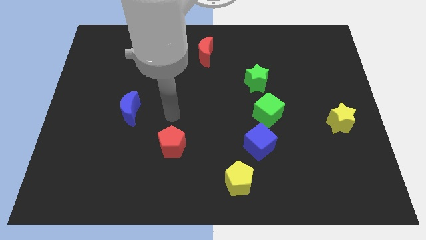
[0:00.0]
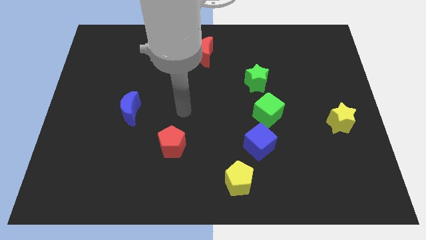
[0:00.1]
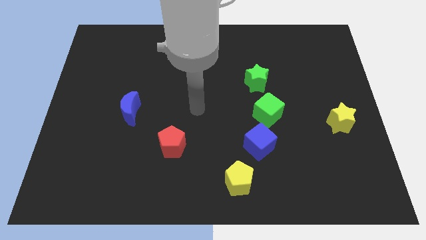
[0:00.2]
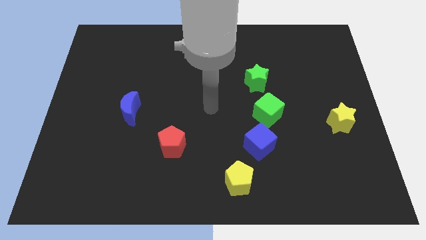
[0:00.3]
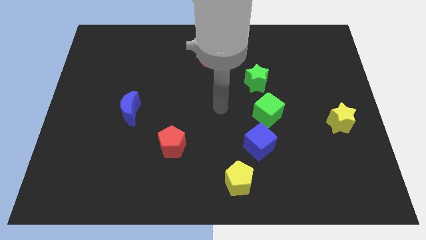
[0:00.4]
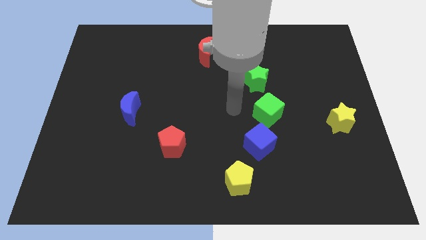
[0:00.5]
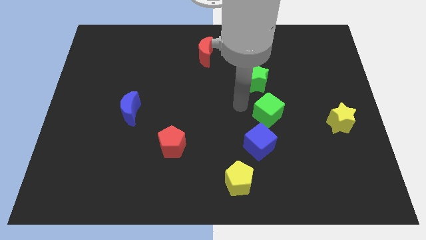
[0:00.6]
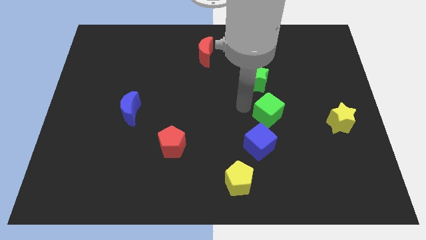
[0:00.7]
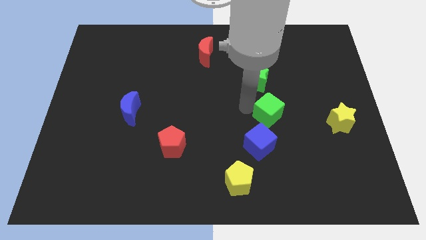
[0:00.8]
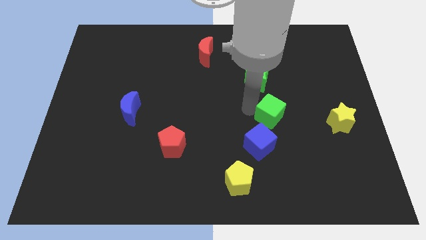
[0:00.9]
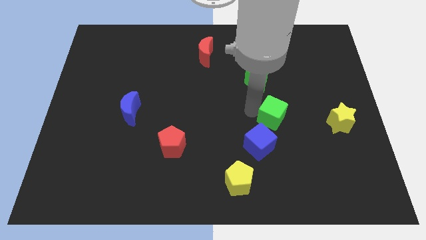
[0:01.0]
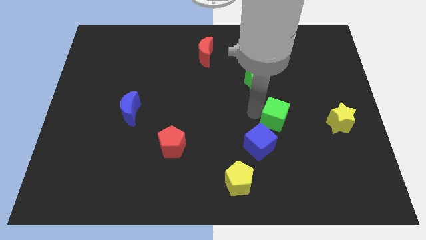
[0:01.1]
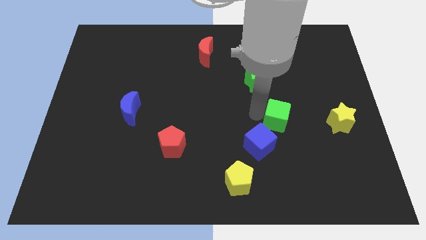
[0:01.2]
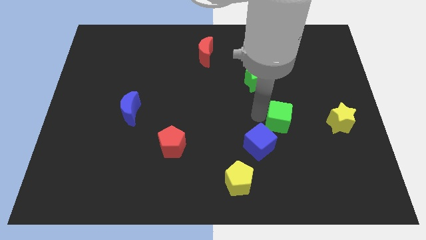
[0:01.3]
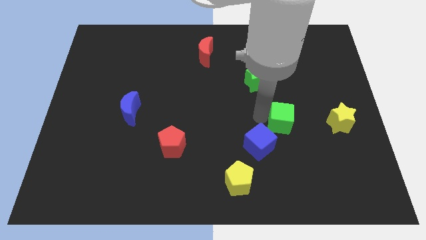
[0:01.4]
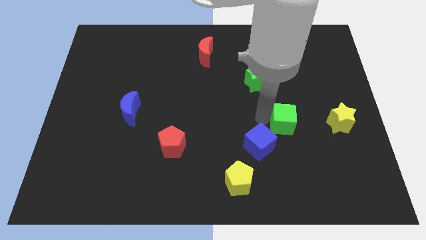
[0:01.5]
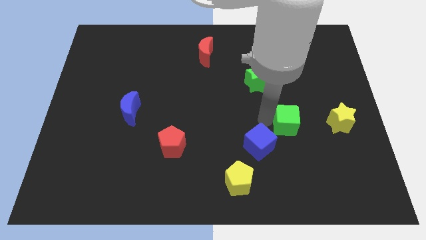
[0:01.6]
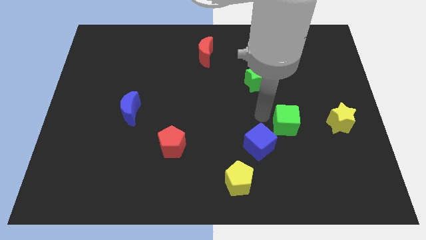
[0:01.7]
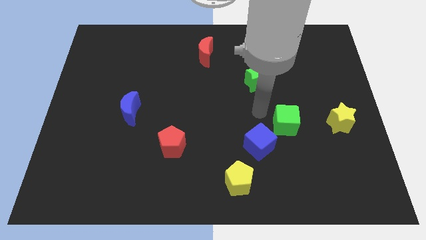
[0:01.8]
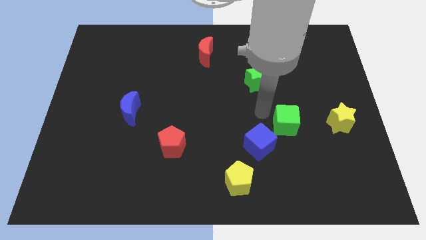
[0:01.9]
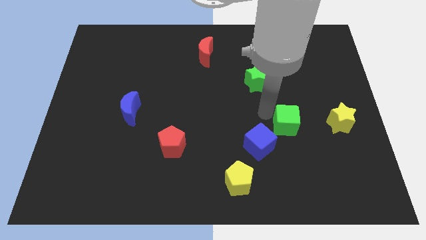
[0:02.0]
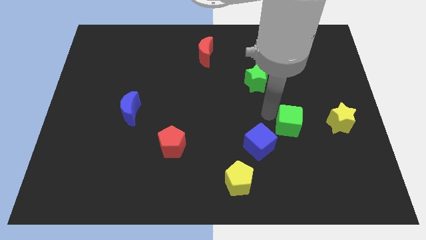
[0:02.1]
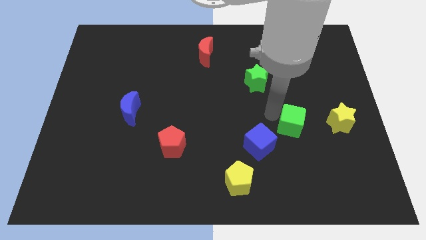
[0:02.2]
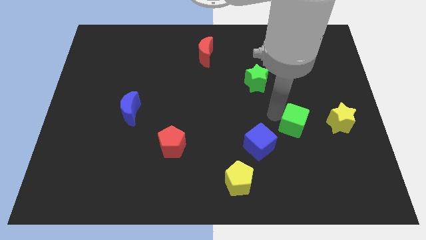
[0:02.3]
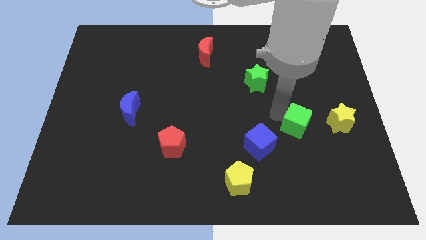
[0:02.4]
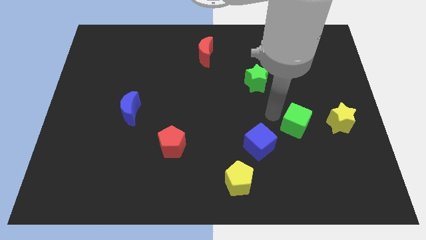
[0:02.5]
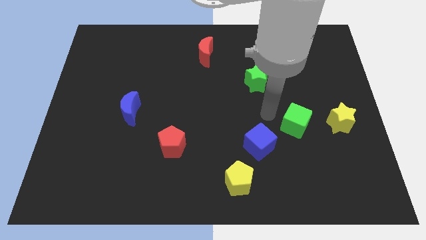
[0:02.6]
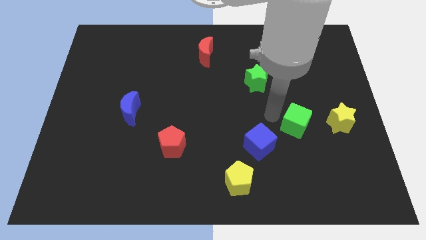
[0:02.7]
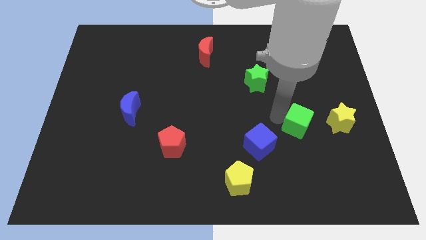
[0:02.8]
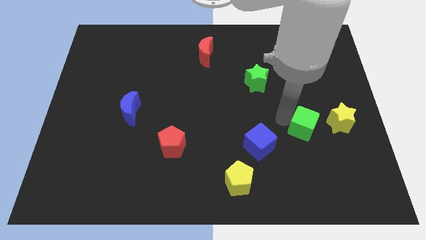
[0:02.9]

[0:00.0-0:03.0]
pull the green cube apart from the blue cube and green star

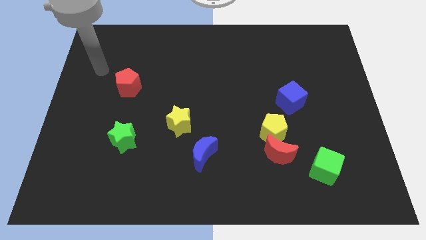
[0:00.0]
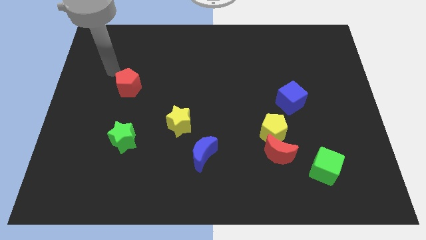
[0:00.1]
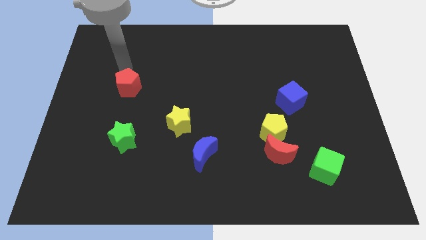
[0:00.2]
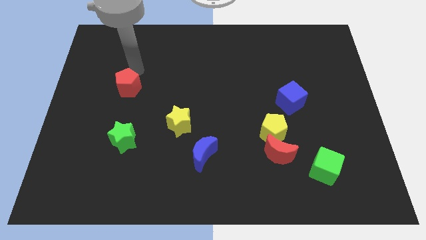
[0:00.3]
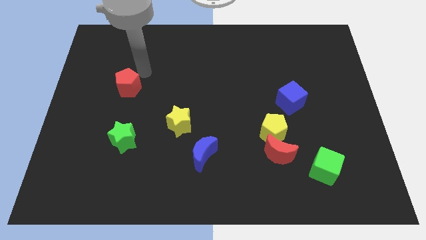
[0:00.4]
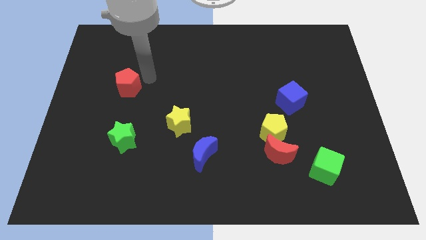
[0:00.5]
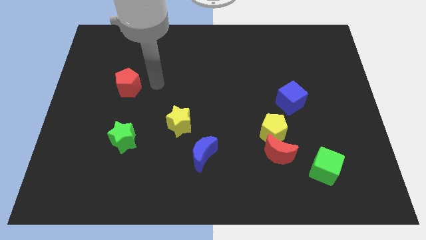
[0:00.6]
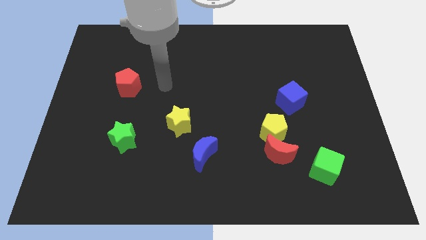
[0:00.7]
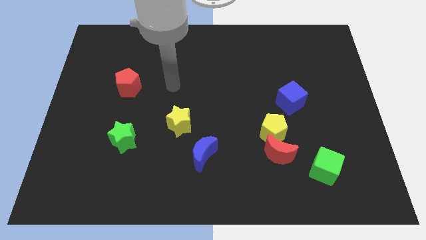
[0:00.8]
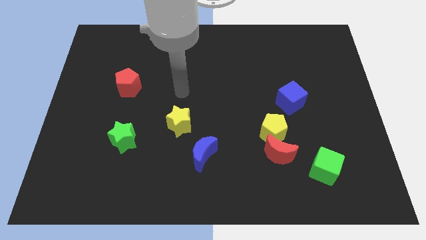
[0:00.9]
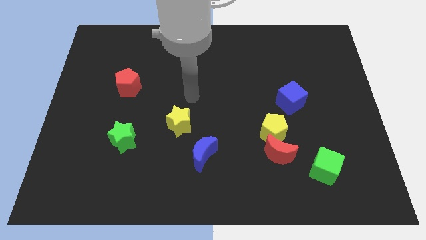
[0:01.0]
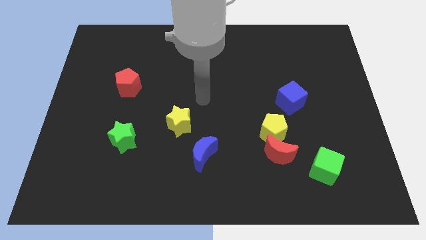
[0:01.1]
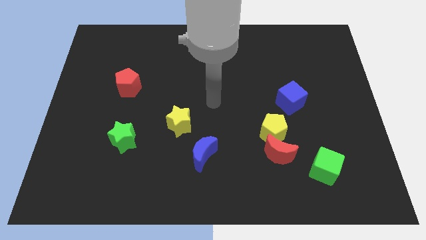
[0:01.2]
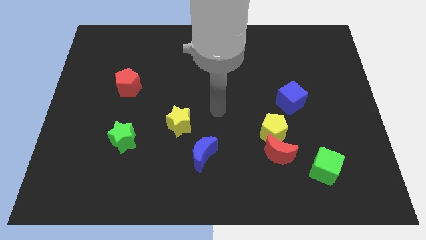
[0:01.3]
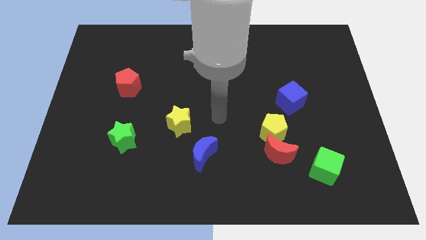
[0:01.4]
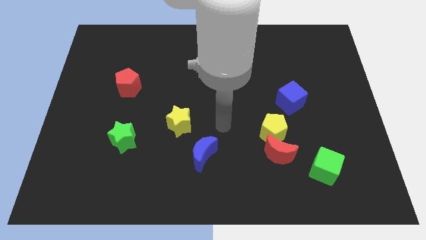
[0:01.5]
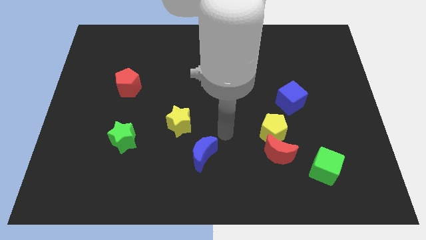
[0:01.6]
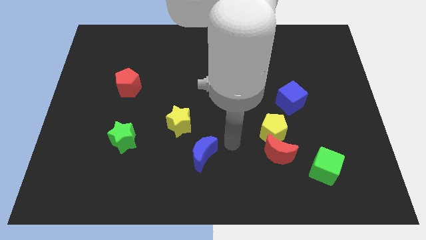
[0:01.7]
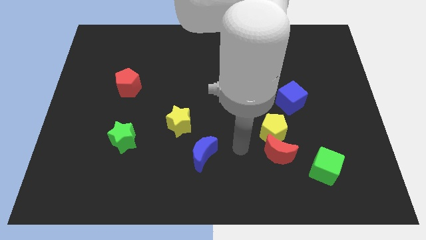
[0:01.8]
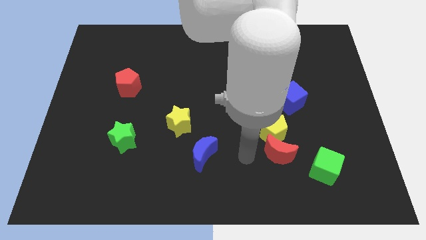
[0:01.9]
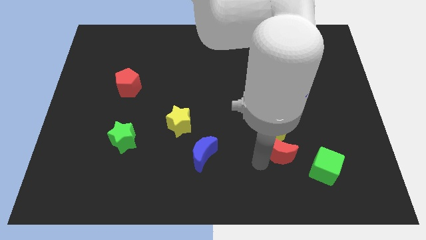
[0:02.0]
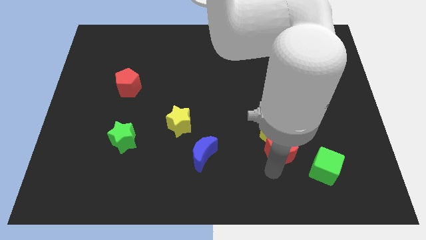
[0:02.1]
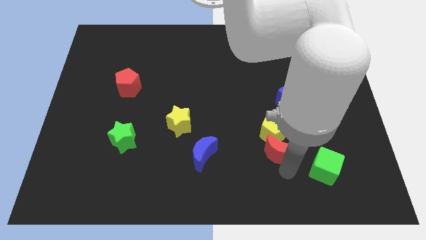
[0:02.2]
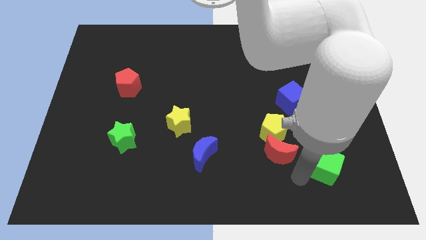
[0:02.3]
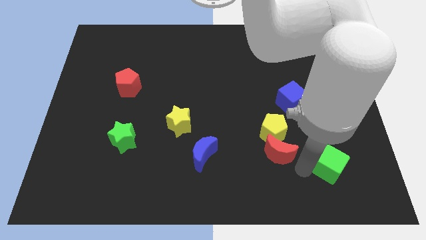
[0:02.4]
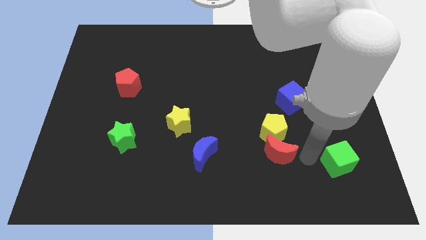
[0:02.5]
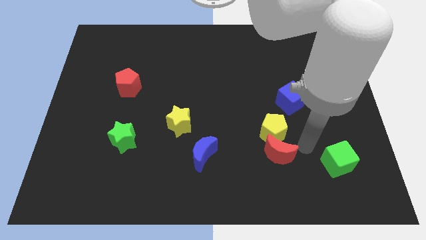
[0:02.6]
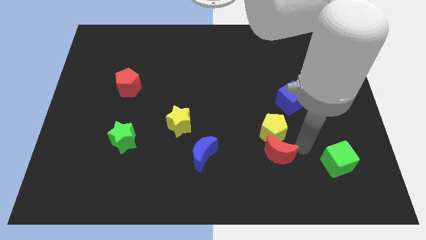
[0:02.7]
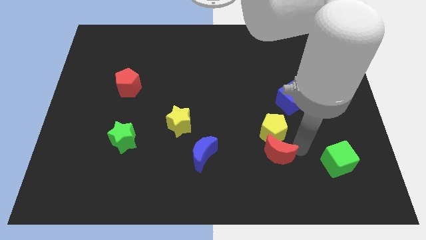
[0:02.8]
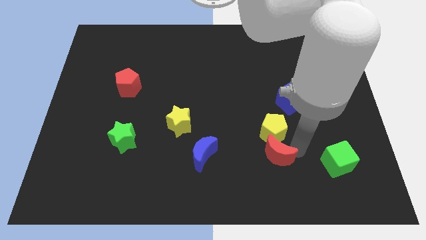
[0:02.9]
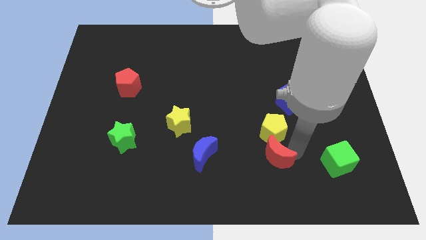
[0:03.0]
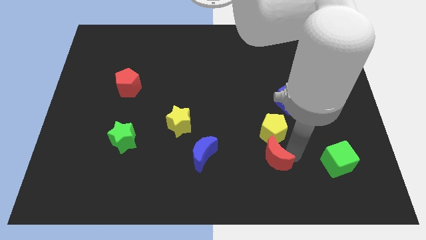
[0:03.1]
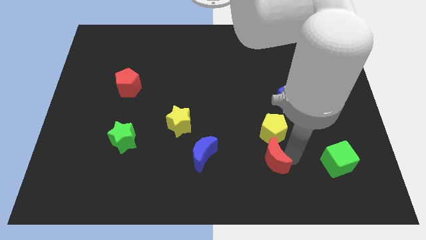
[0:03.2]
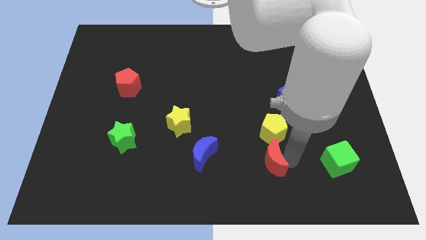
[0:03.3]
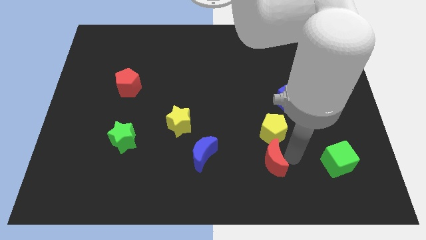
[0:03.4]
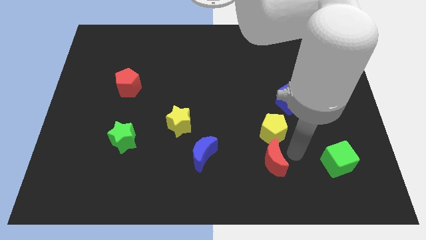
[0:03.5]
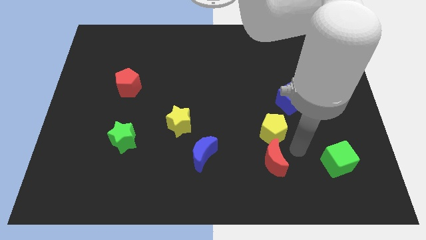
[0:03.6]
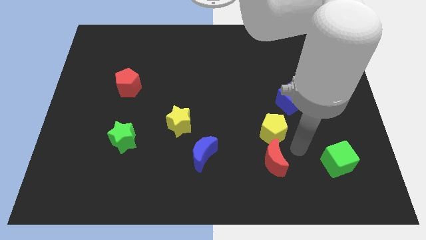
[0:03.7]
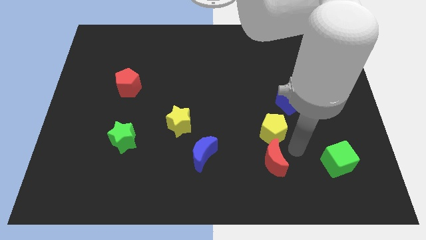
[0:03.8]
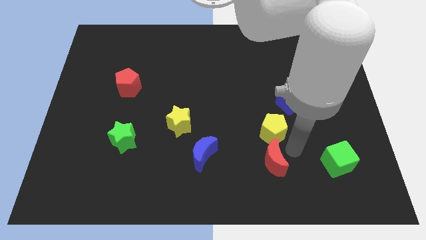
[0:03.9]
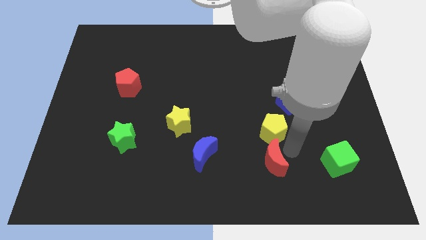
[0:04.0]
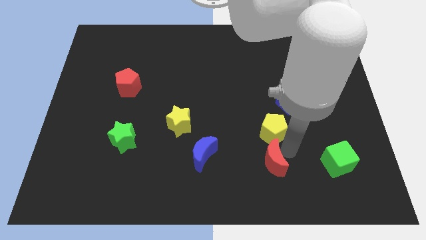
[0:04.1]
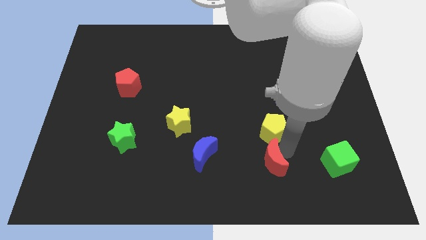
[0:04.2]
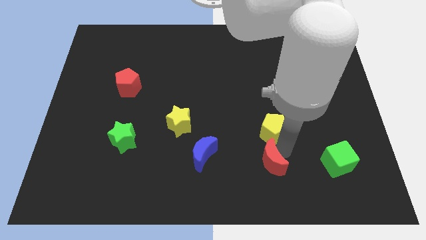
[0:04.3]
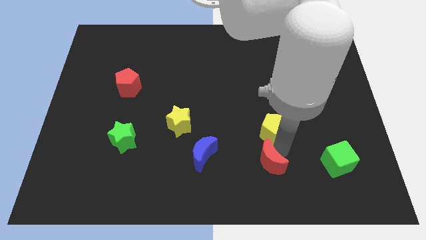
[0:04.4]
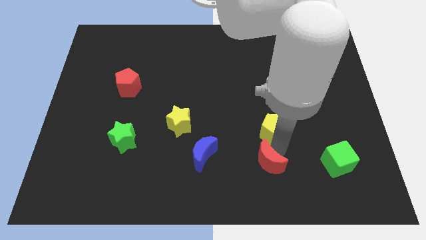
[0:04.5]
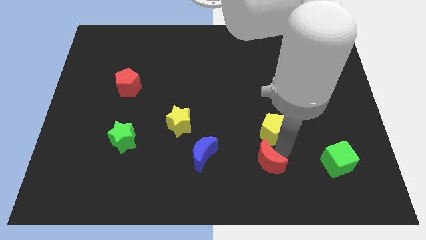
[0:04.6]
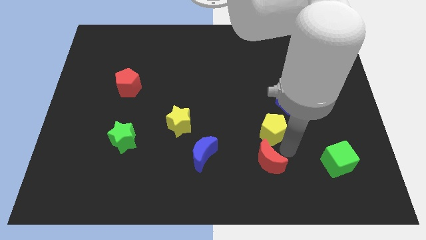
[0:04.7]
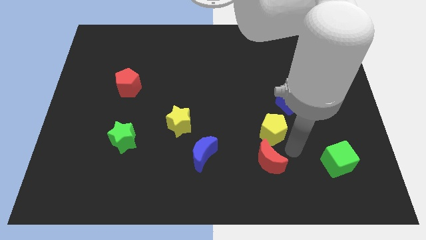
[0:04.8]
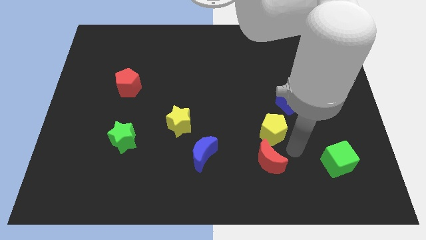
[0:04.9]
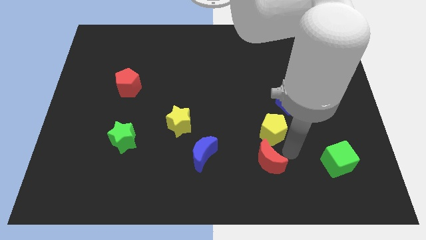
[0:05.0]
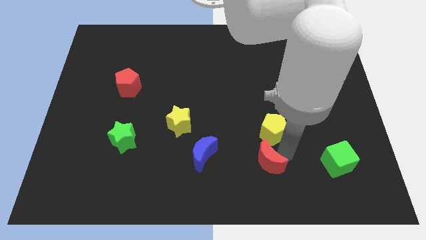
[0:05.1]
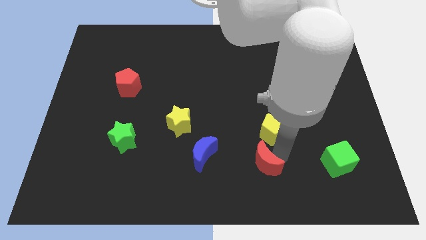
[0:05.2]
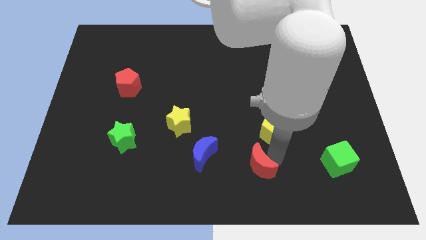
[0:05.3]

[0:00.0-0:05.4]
move the red moon away from the yellow pentagon and green cube

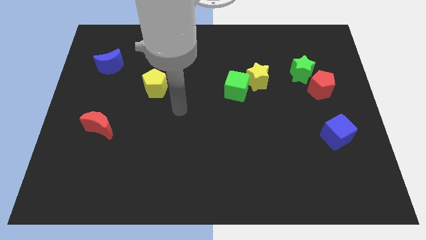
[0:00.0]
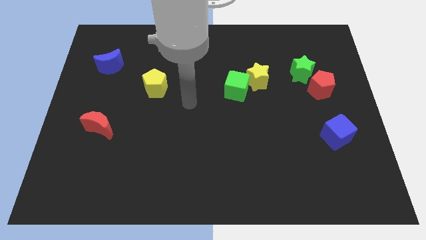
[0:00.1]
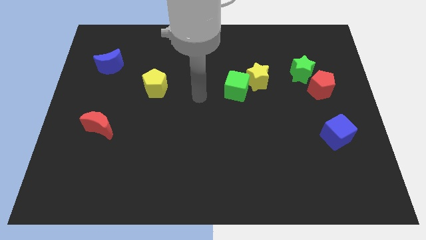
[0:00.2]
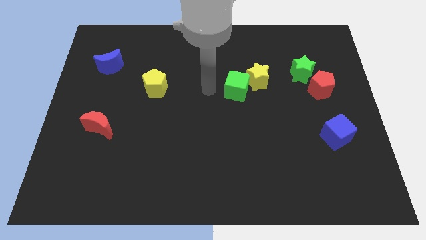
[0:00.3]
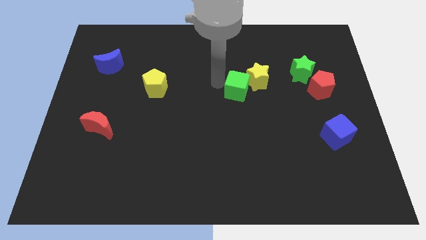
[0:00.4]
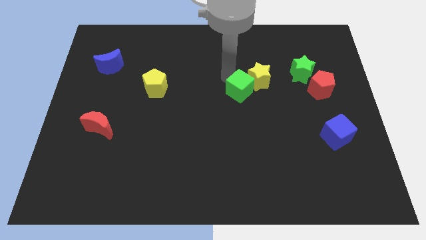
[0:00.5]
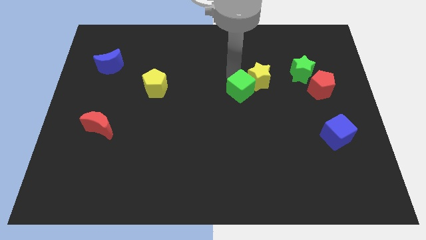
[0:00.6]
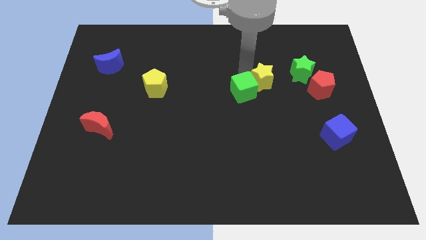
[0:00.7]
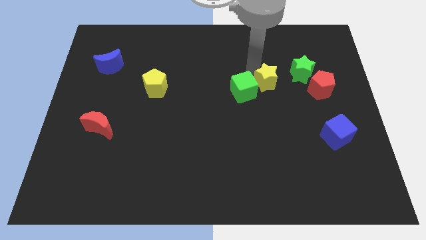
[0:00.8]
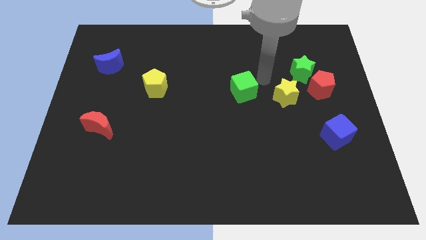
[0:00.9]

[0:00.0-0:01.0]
move the green cube away from the yellow star
